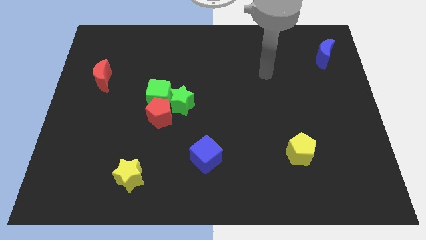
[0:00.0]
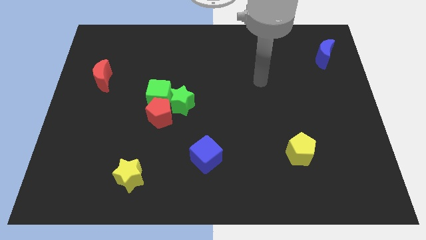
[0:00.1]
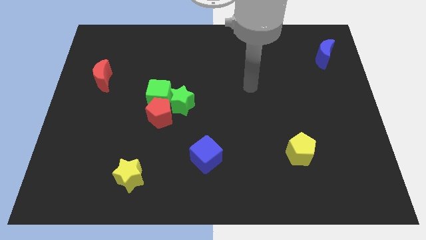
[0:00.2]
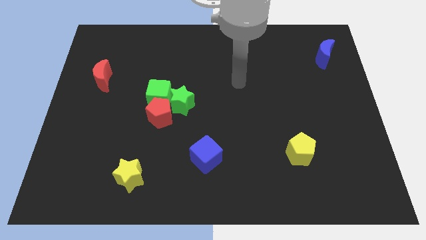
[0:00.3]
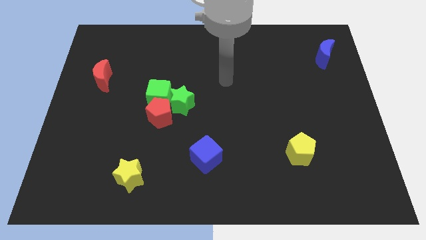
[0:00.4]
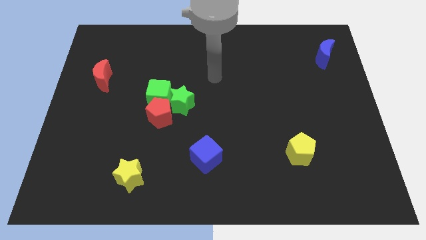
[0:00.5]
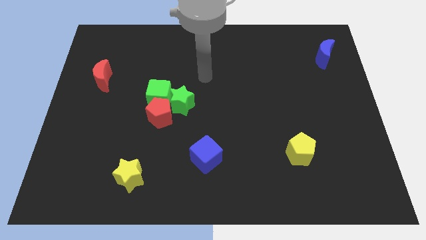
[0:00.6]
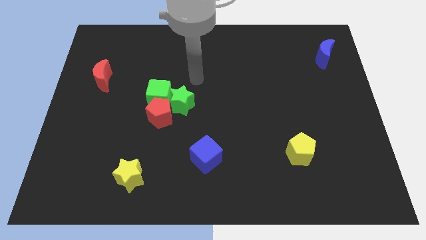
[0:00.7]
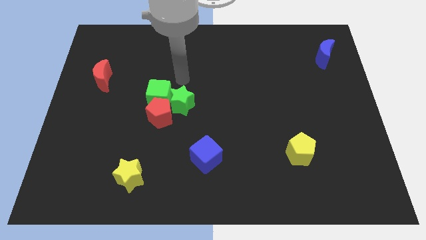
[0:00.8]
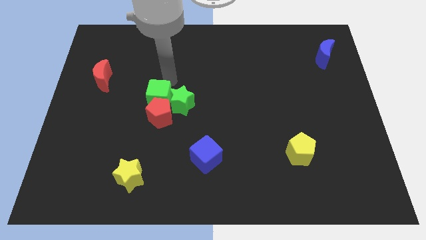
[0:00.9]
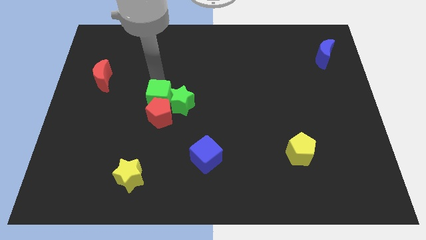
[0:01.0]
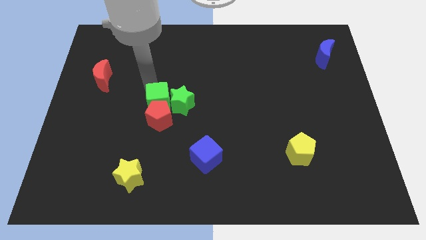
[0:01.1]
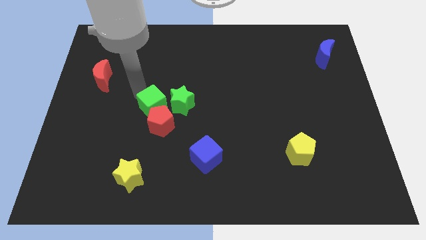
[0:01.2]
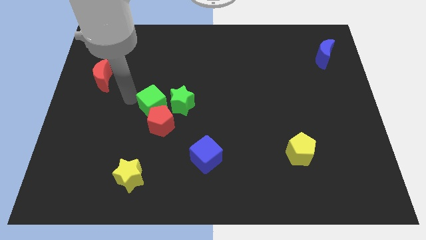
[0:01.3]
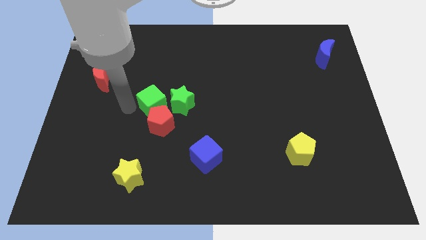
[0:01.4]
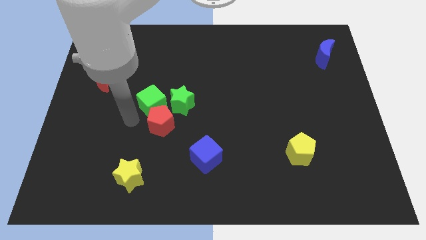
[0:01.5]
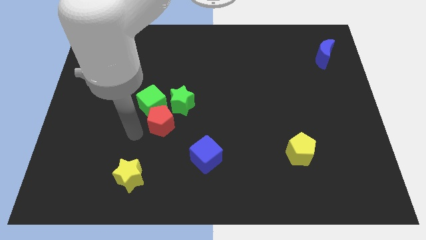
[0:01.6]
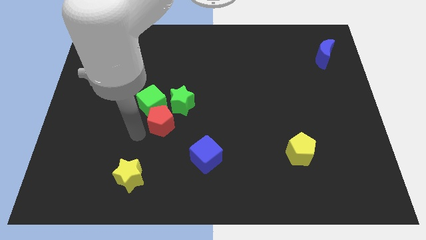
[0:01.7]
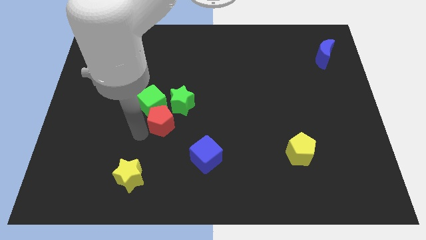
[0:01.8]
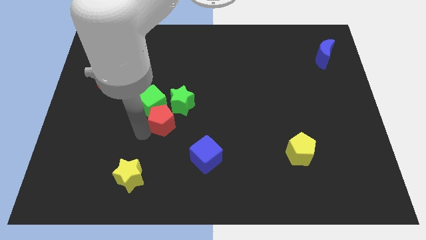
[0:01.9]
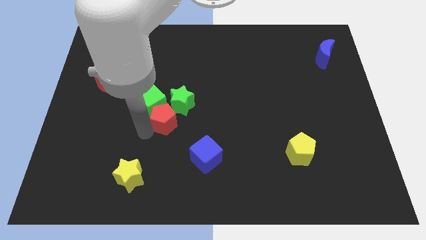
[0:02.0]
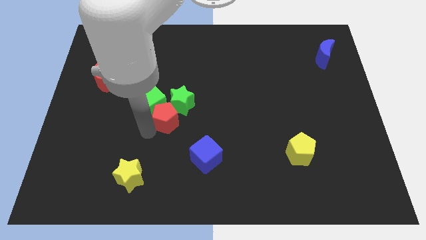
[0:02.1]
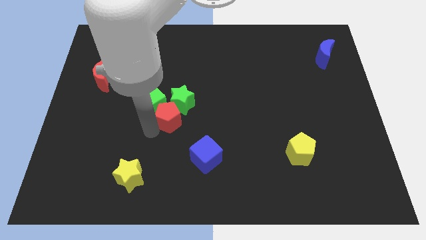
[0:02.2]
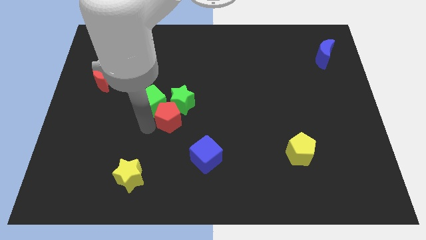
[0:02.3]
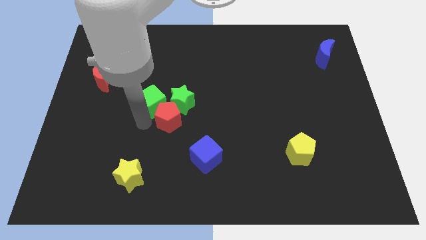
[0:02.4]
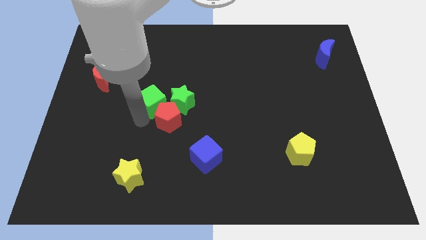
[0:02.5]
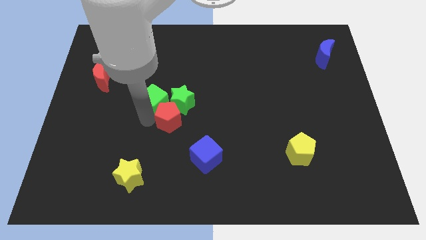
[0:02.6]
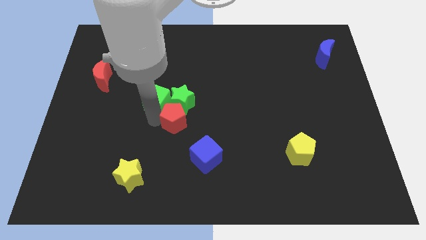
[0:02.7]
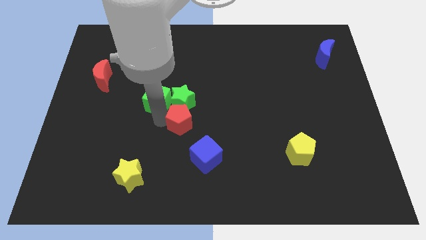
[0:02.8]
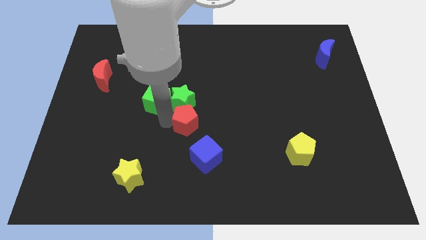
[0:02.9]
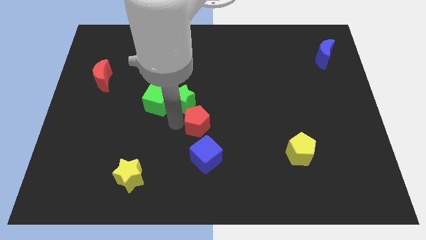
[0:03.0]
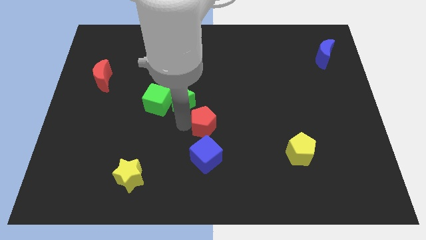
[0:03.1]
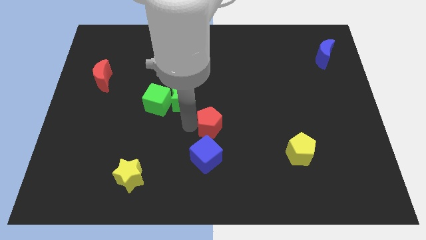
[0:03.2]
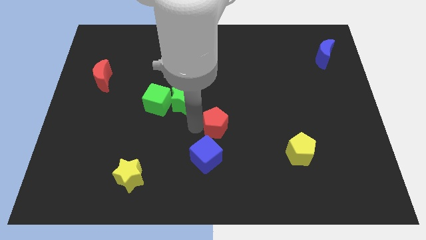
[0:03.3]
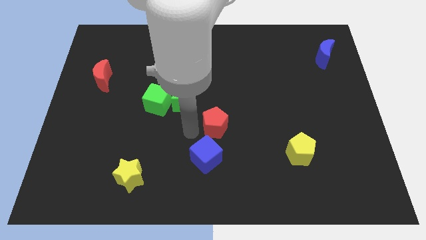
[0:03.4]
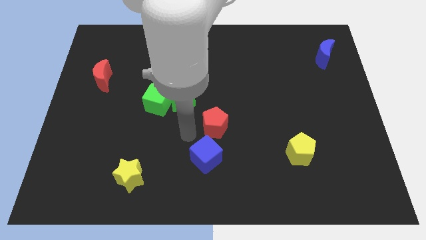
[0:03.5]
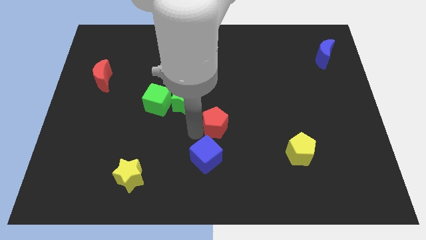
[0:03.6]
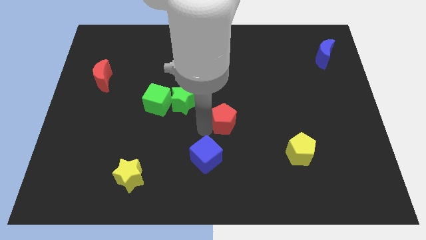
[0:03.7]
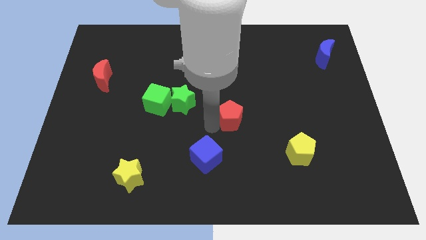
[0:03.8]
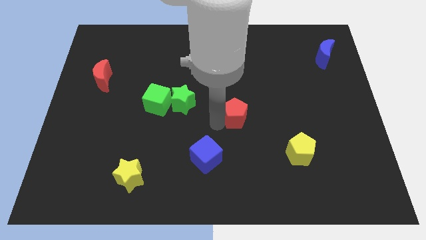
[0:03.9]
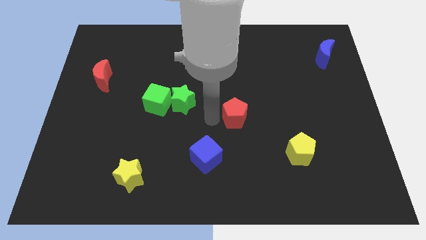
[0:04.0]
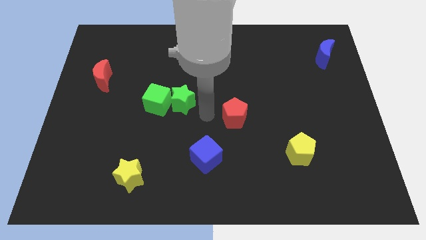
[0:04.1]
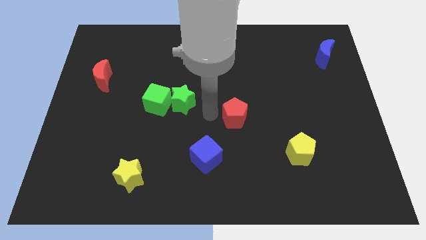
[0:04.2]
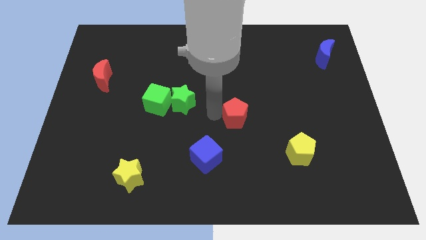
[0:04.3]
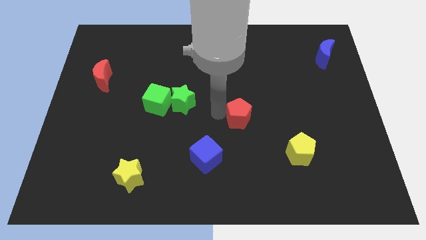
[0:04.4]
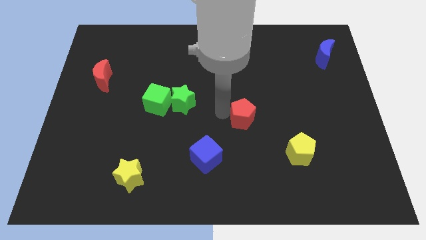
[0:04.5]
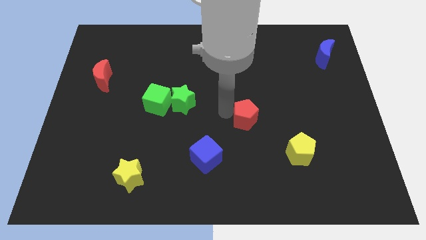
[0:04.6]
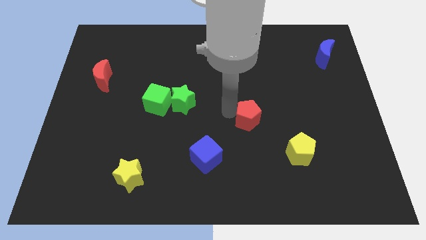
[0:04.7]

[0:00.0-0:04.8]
slide the red pentagon right

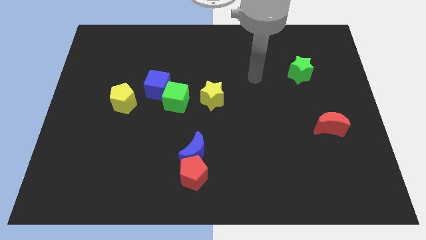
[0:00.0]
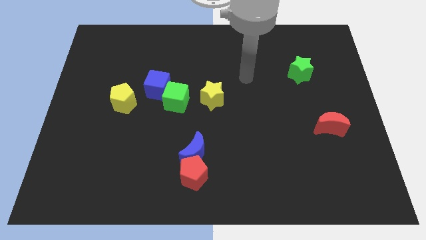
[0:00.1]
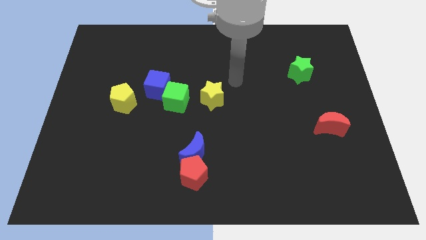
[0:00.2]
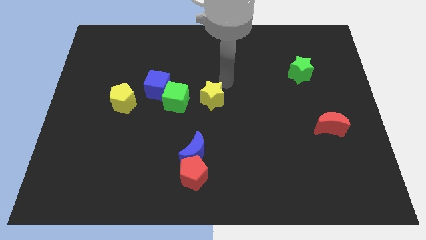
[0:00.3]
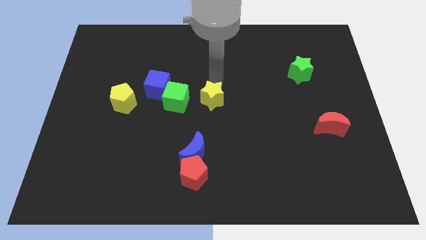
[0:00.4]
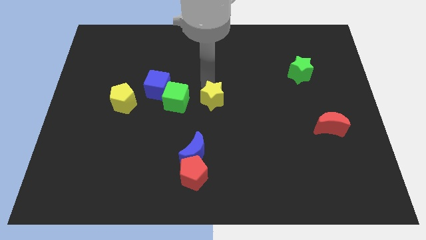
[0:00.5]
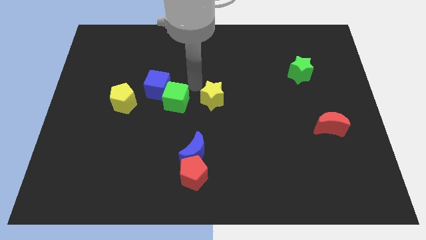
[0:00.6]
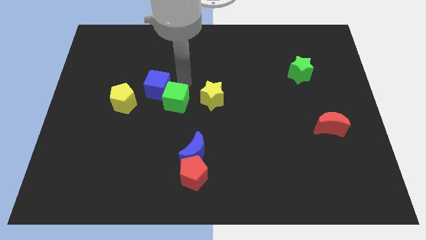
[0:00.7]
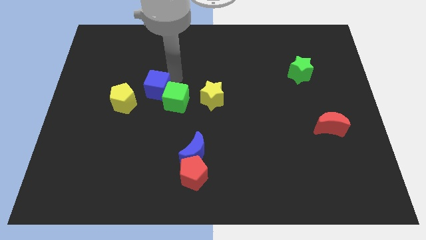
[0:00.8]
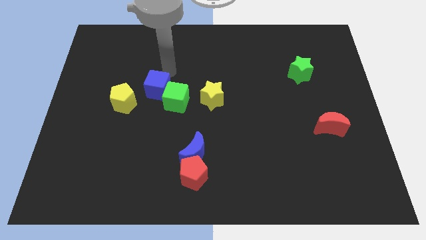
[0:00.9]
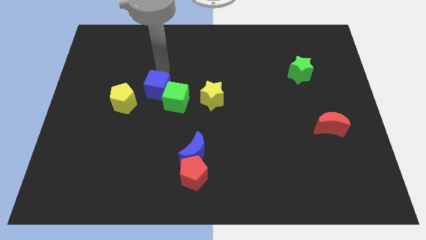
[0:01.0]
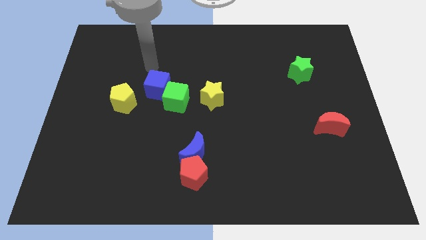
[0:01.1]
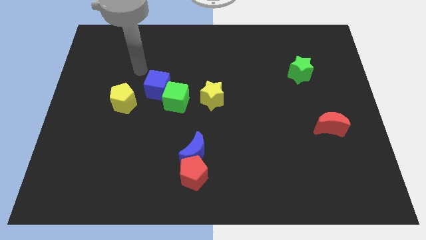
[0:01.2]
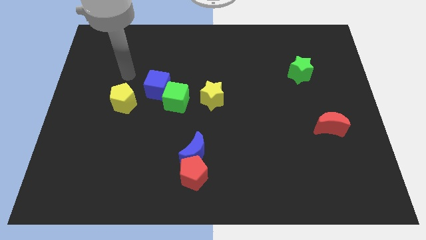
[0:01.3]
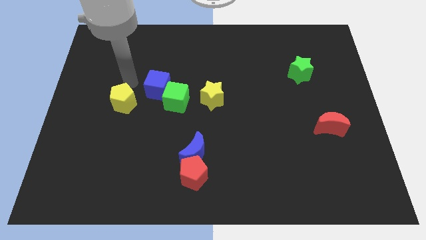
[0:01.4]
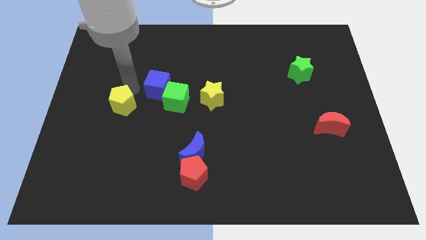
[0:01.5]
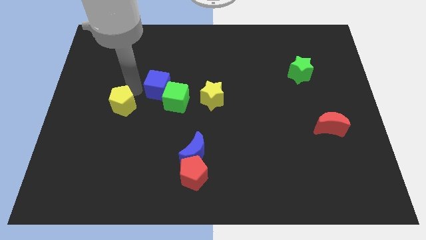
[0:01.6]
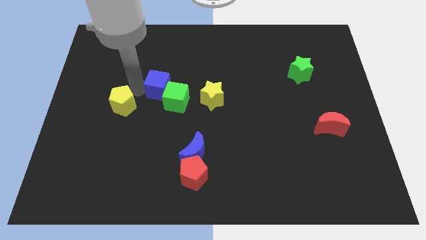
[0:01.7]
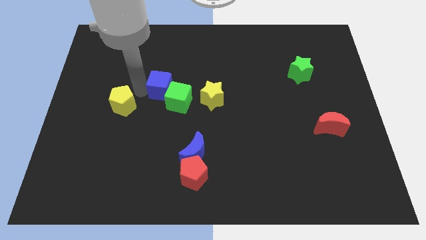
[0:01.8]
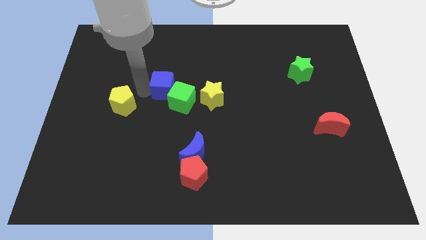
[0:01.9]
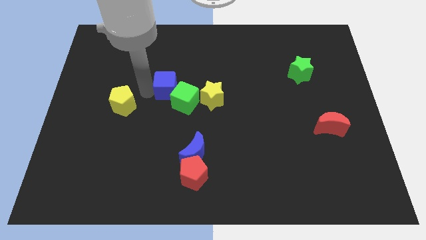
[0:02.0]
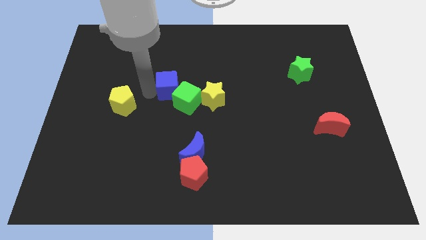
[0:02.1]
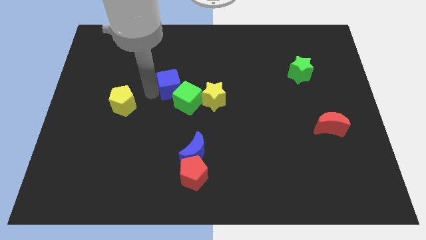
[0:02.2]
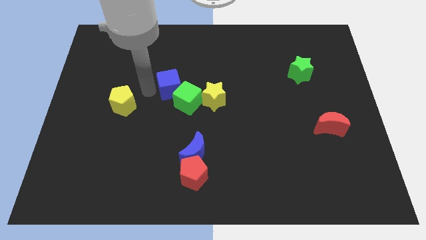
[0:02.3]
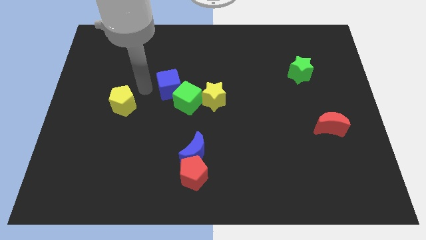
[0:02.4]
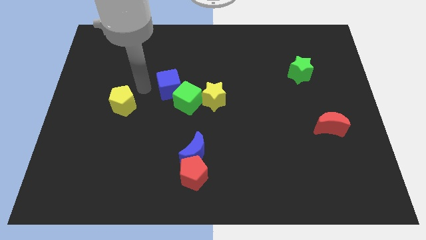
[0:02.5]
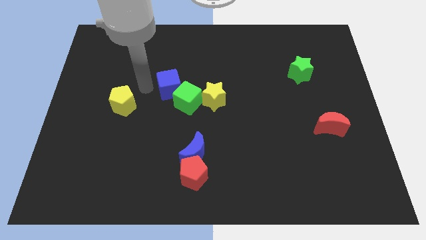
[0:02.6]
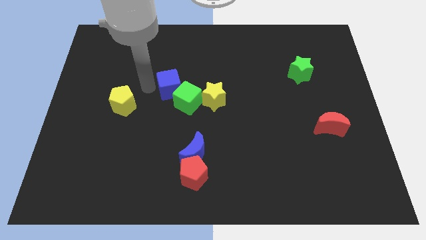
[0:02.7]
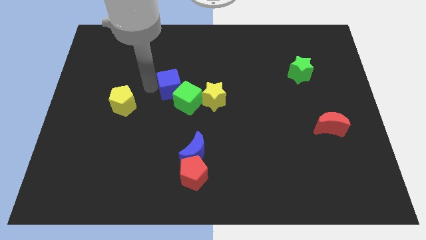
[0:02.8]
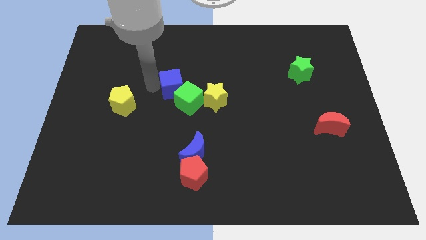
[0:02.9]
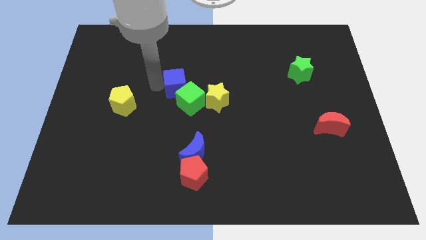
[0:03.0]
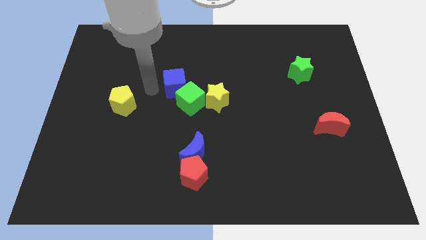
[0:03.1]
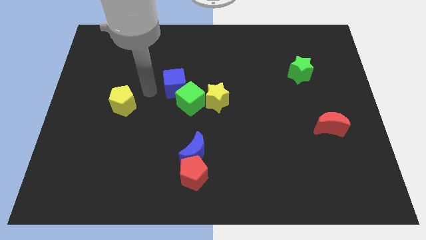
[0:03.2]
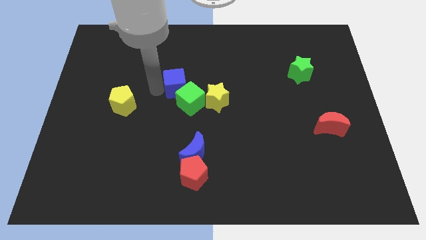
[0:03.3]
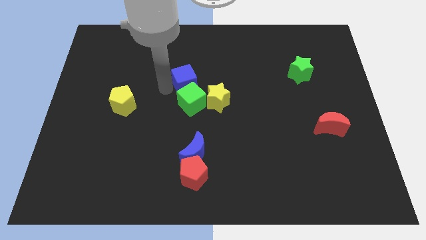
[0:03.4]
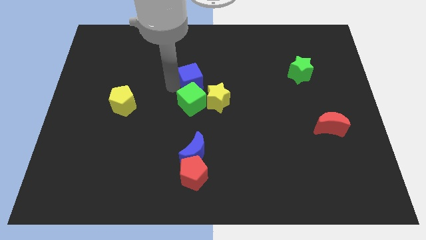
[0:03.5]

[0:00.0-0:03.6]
move the blue cube a bit to the right
